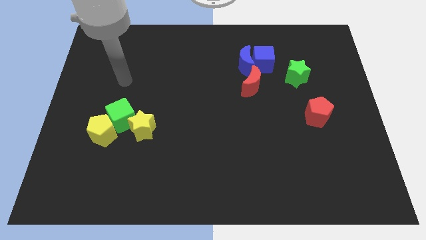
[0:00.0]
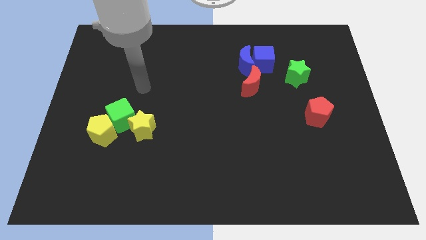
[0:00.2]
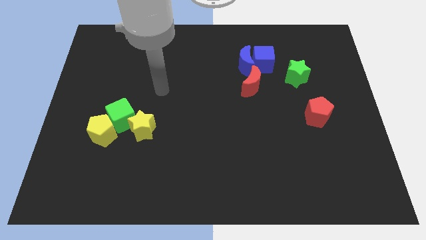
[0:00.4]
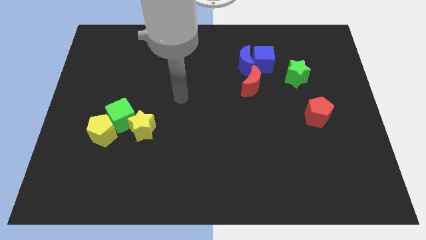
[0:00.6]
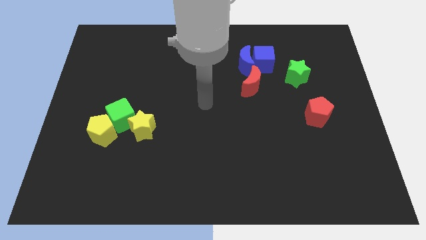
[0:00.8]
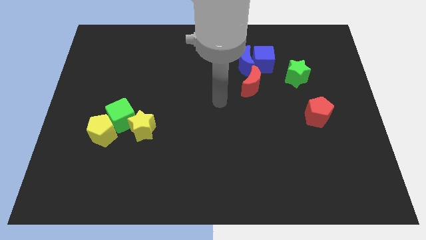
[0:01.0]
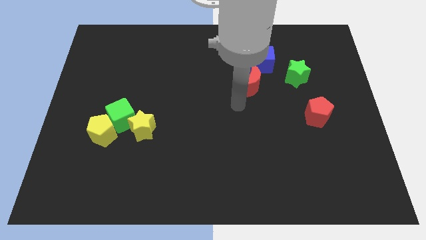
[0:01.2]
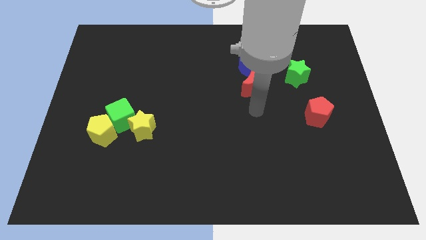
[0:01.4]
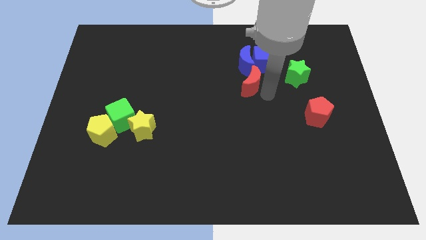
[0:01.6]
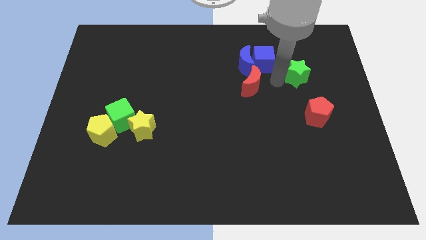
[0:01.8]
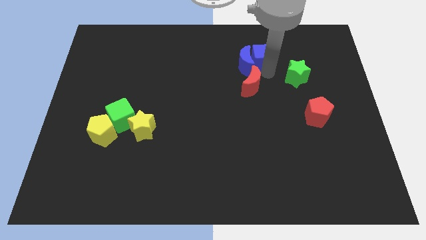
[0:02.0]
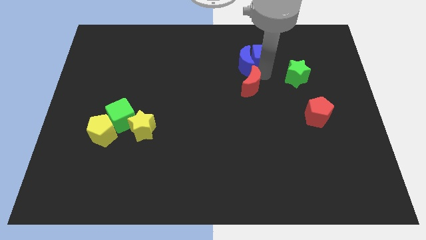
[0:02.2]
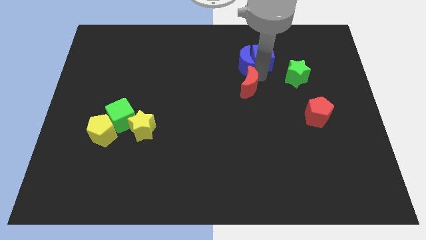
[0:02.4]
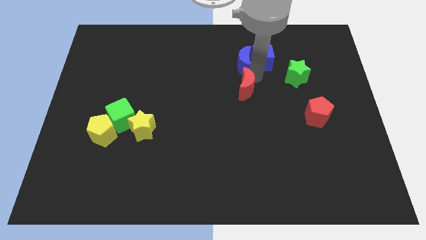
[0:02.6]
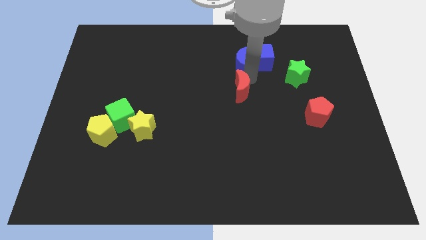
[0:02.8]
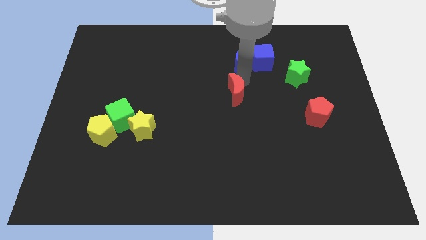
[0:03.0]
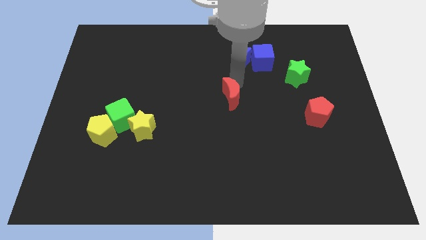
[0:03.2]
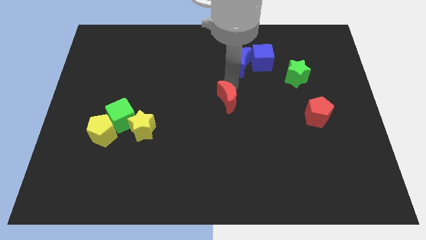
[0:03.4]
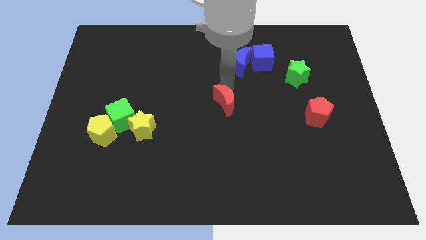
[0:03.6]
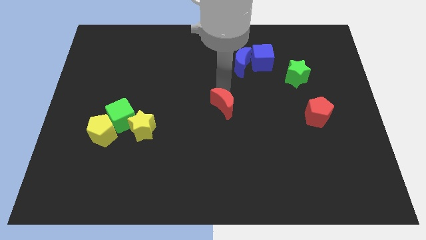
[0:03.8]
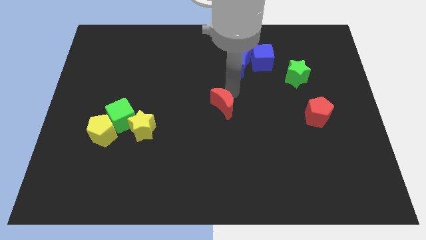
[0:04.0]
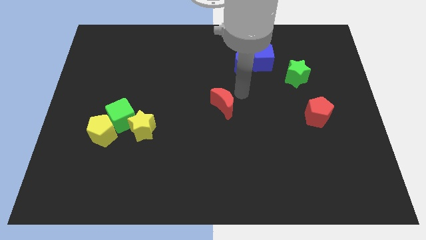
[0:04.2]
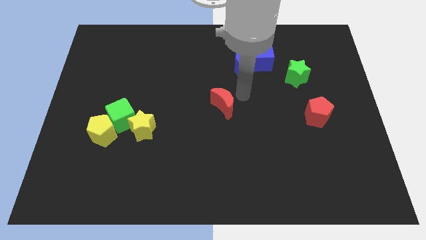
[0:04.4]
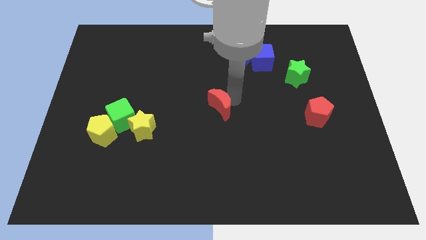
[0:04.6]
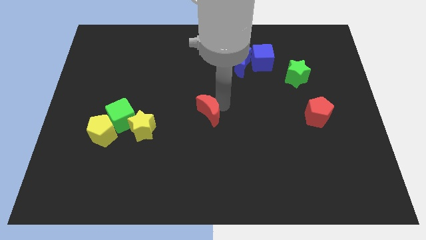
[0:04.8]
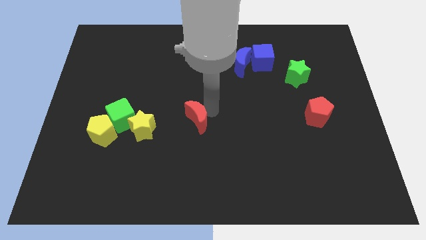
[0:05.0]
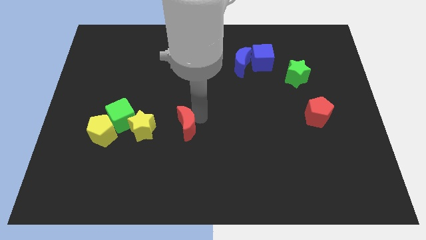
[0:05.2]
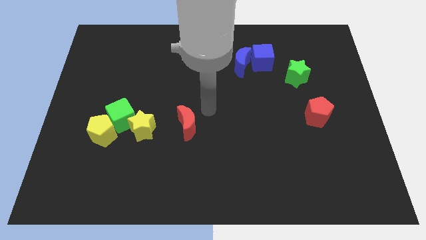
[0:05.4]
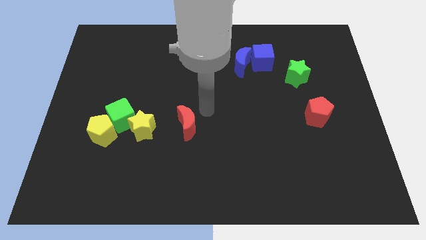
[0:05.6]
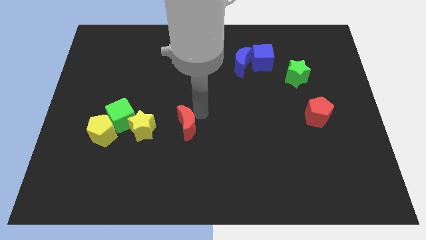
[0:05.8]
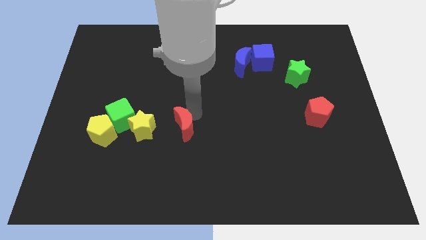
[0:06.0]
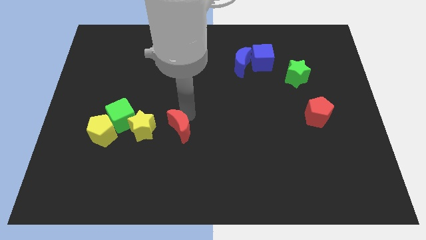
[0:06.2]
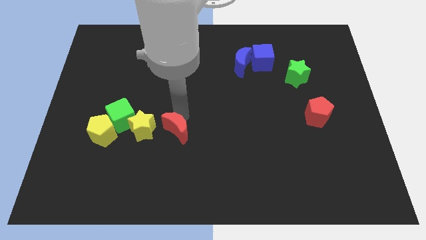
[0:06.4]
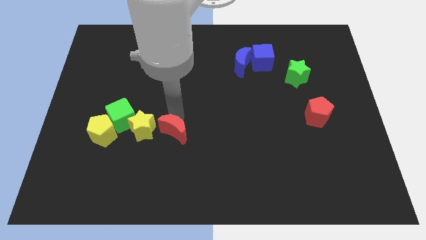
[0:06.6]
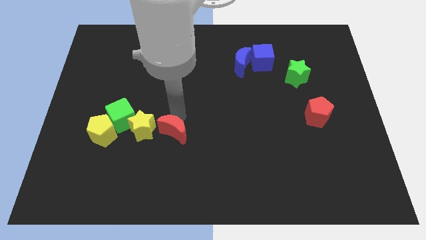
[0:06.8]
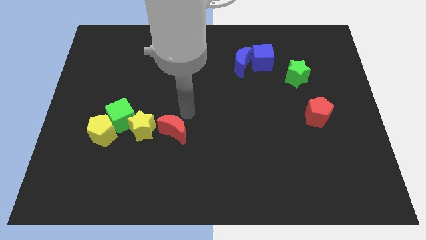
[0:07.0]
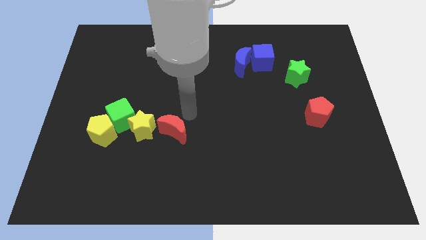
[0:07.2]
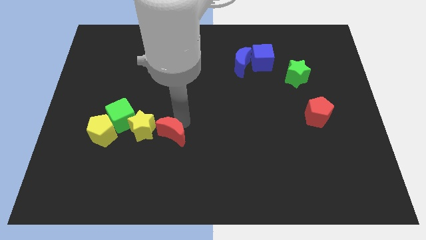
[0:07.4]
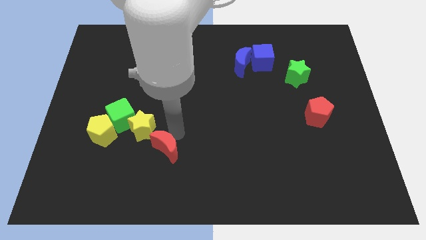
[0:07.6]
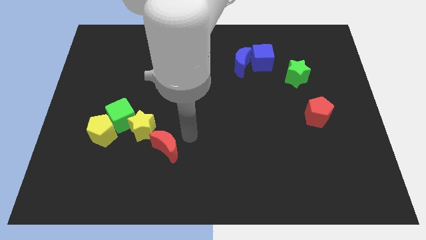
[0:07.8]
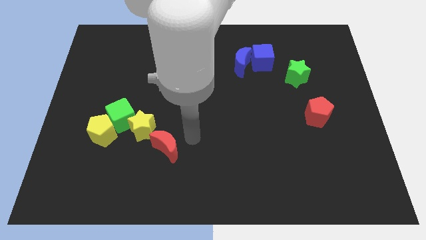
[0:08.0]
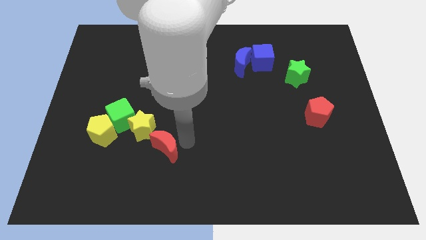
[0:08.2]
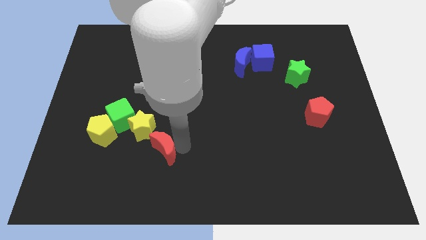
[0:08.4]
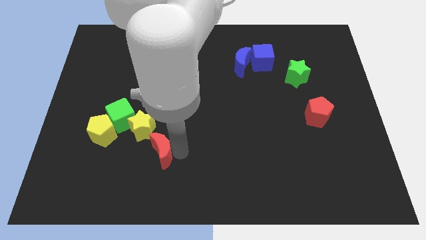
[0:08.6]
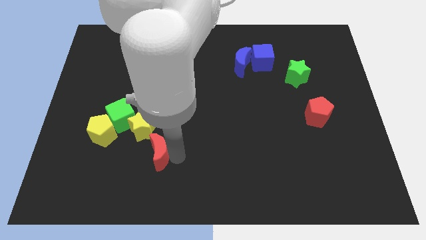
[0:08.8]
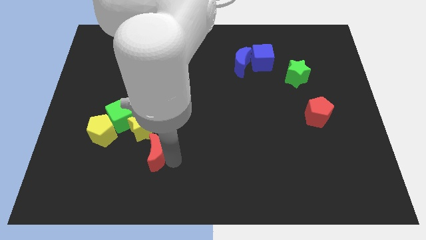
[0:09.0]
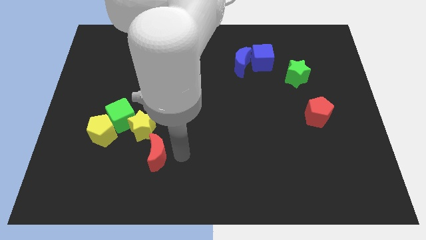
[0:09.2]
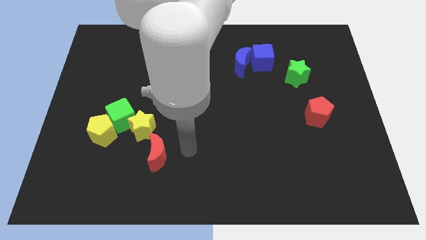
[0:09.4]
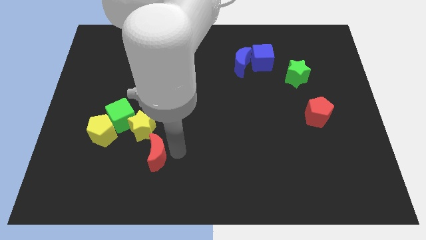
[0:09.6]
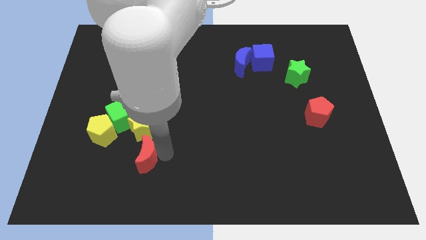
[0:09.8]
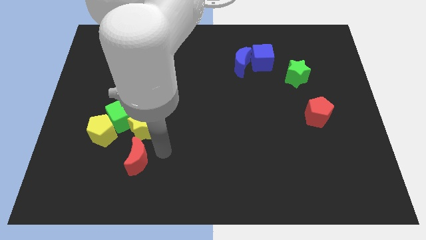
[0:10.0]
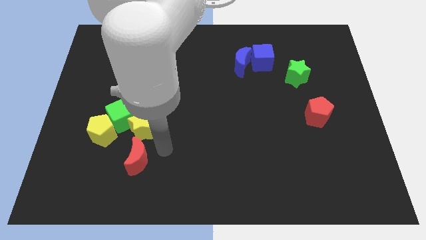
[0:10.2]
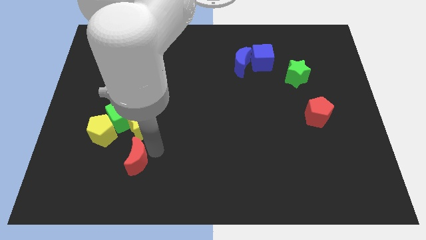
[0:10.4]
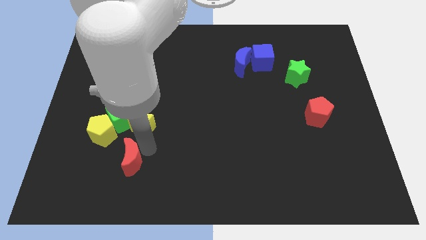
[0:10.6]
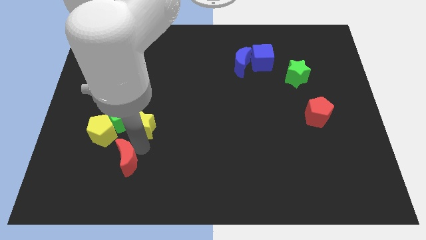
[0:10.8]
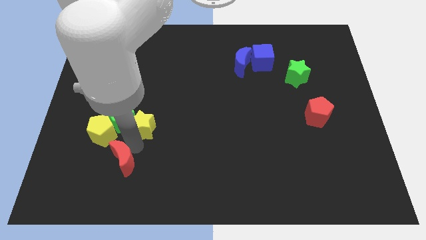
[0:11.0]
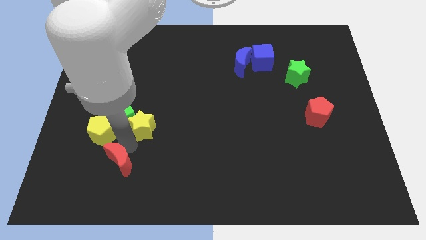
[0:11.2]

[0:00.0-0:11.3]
move the red moon to the bottom of the yellow pentagon

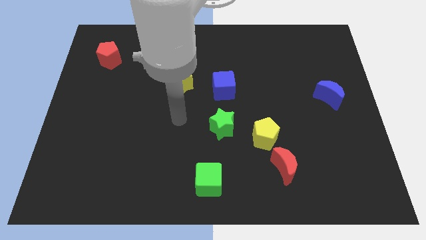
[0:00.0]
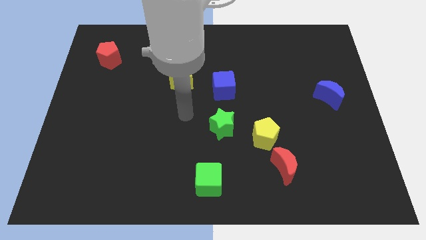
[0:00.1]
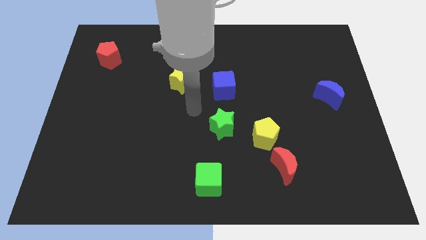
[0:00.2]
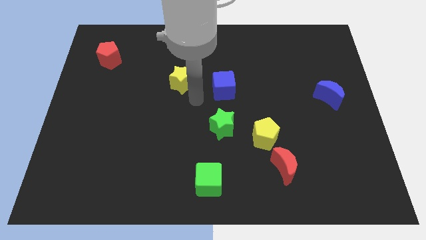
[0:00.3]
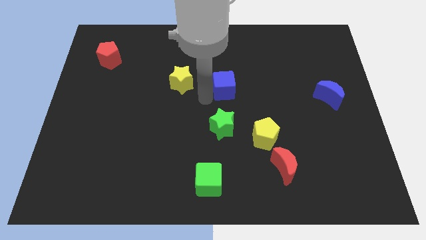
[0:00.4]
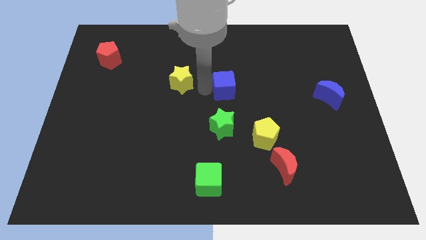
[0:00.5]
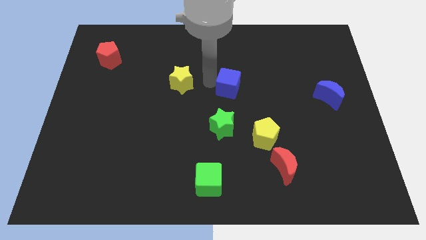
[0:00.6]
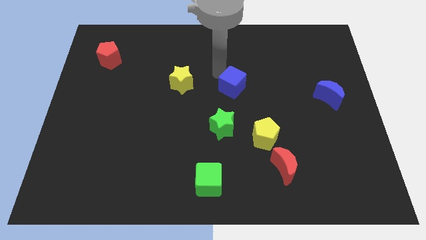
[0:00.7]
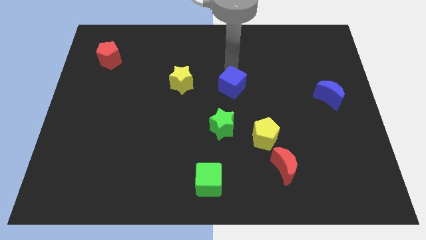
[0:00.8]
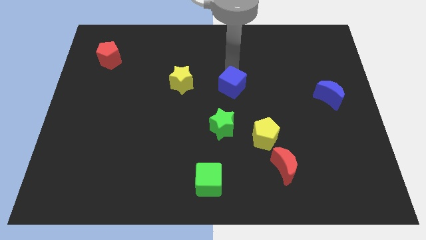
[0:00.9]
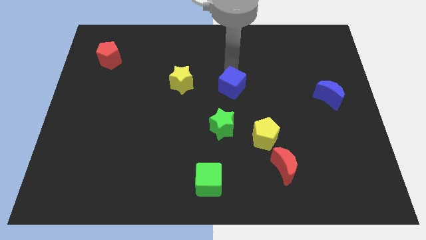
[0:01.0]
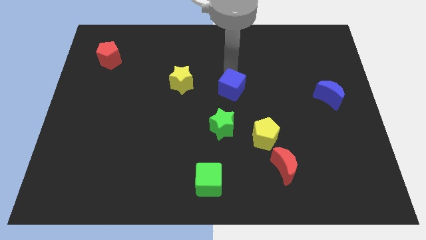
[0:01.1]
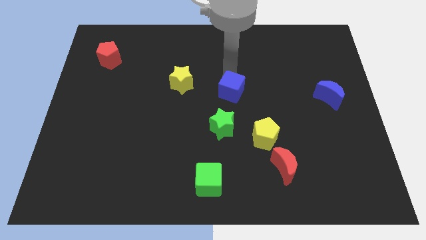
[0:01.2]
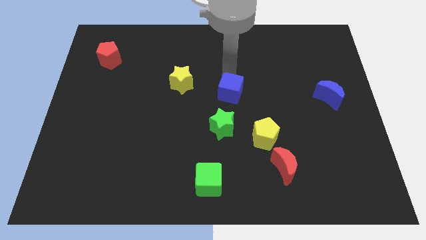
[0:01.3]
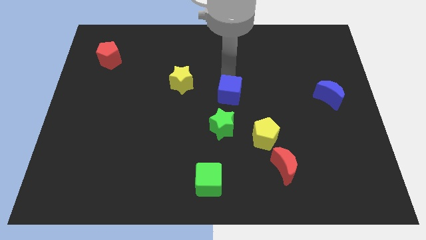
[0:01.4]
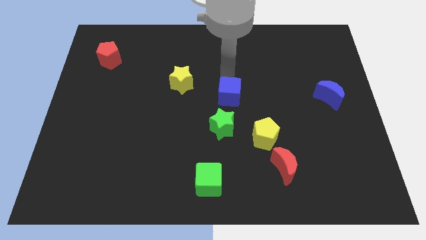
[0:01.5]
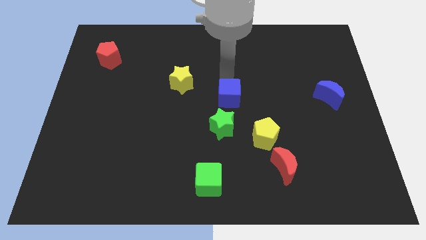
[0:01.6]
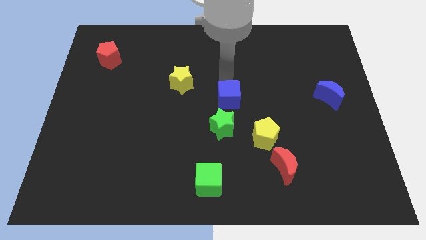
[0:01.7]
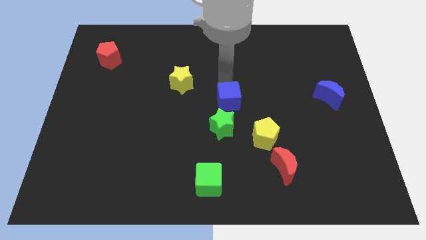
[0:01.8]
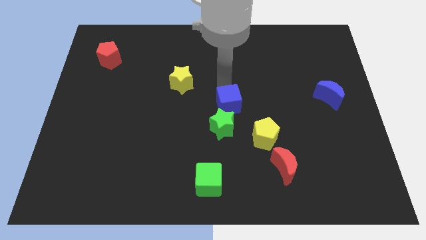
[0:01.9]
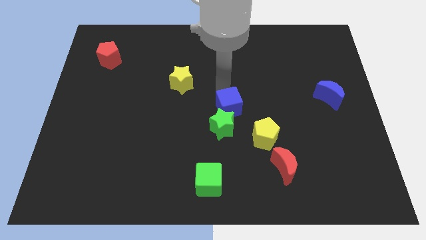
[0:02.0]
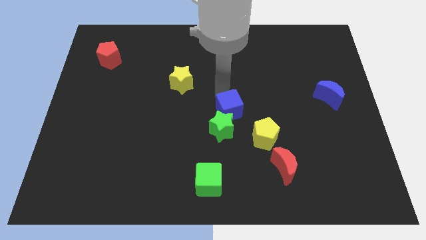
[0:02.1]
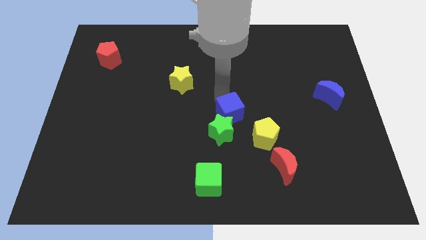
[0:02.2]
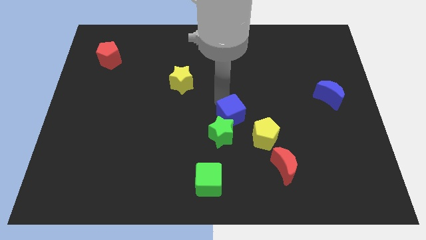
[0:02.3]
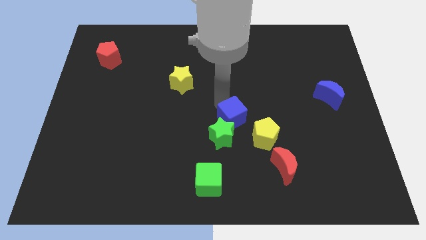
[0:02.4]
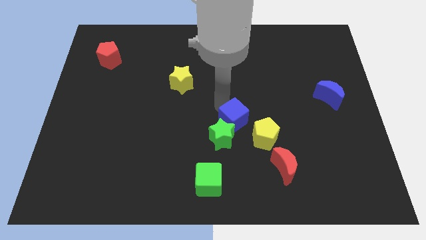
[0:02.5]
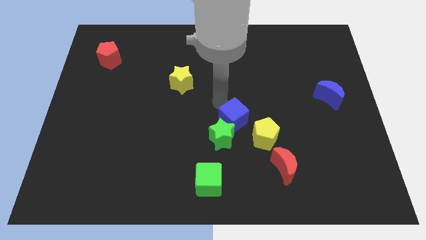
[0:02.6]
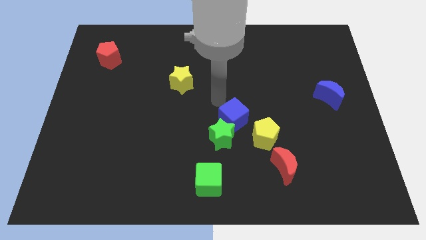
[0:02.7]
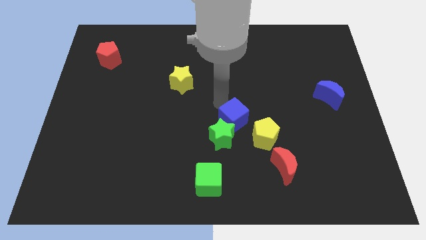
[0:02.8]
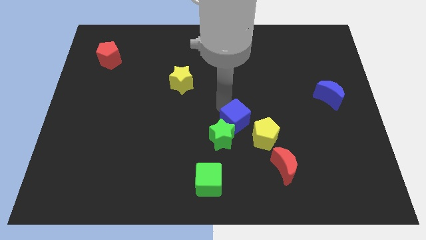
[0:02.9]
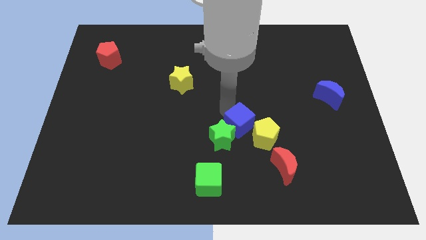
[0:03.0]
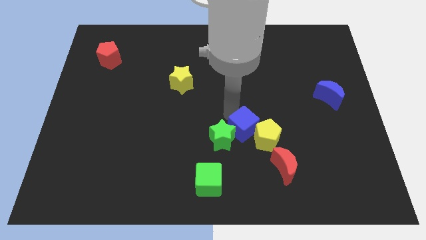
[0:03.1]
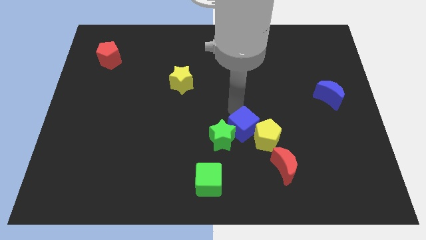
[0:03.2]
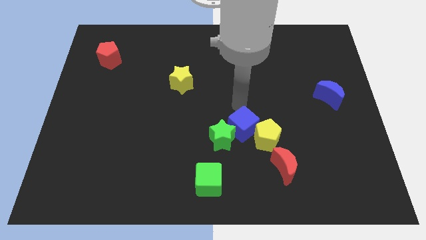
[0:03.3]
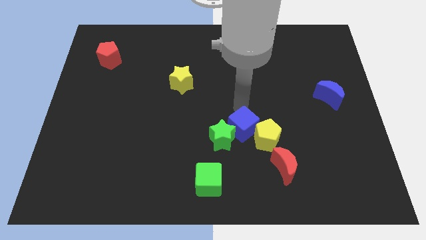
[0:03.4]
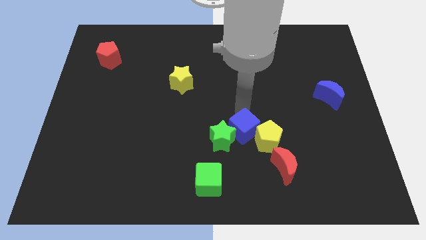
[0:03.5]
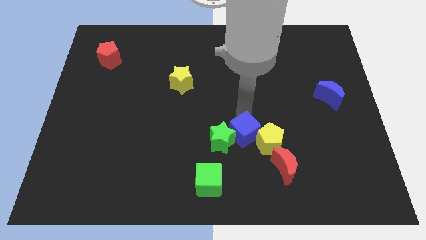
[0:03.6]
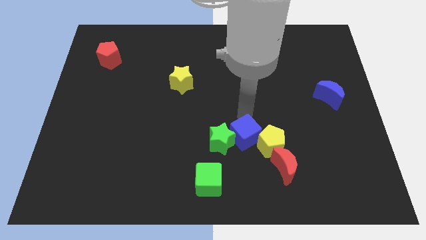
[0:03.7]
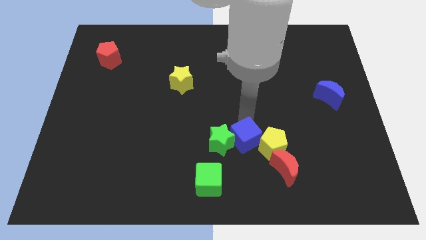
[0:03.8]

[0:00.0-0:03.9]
slide the blue cube to the bottom right of the green star
